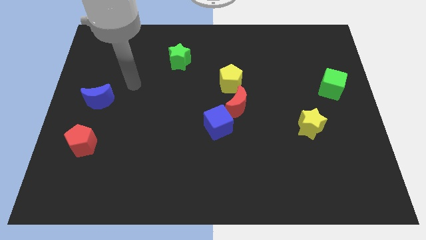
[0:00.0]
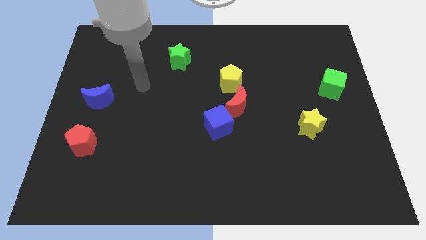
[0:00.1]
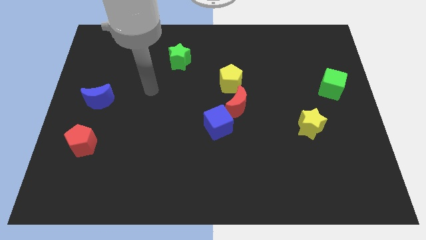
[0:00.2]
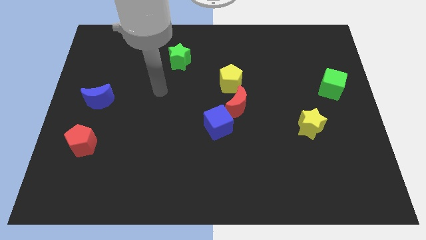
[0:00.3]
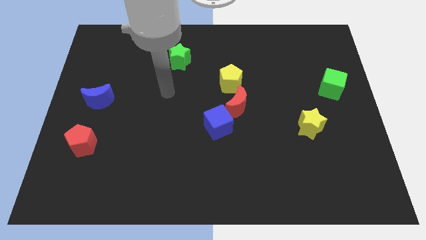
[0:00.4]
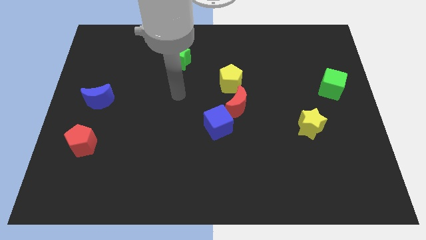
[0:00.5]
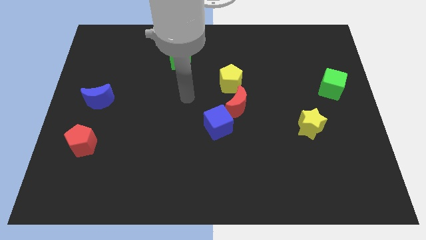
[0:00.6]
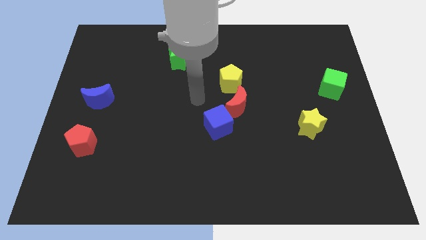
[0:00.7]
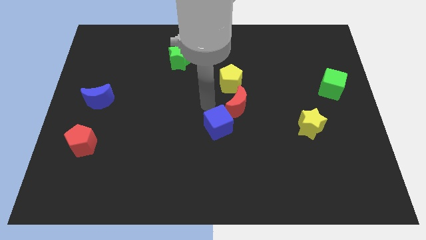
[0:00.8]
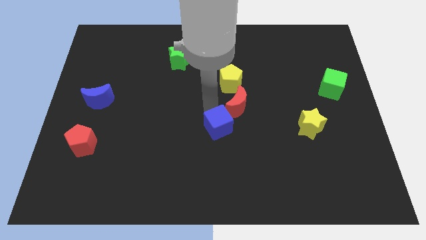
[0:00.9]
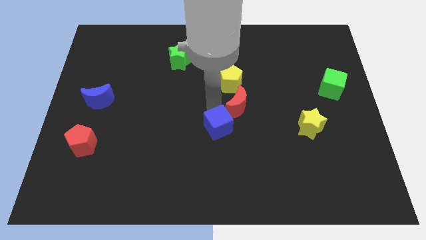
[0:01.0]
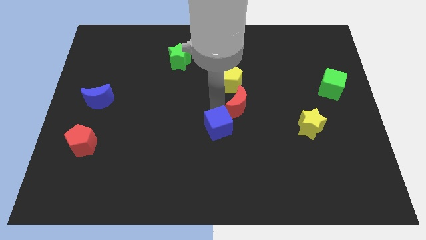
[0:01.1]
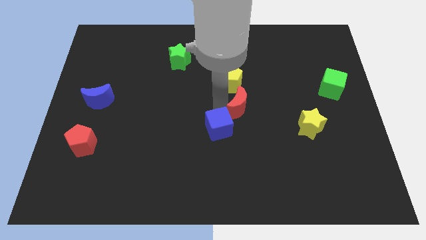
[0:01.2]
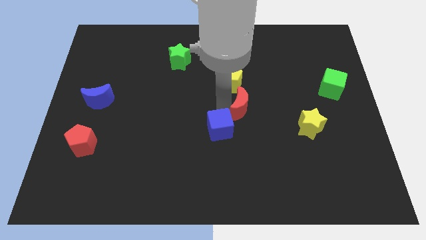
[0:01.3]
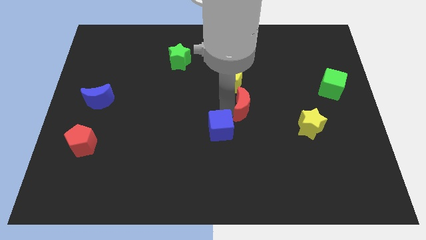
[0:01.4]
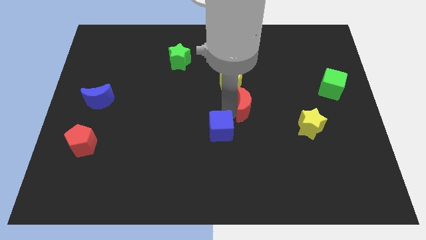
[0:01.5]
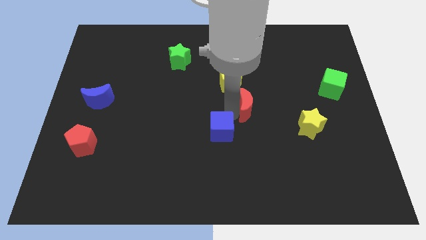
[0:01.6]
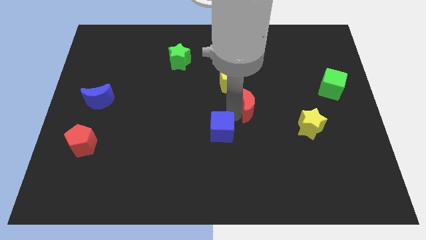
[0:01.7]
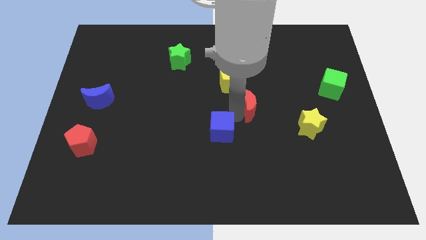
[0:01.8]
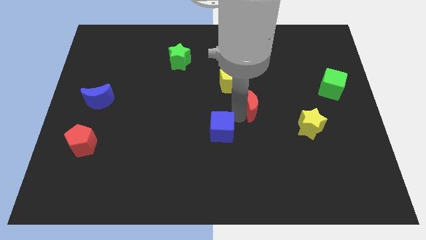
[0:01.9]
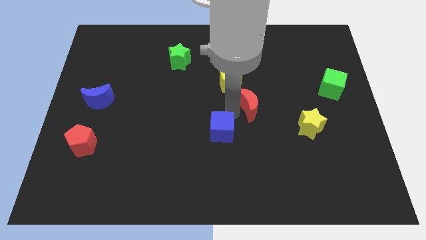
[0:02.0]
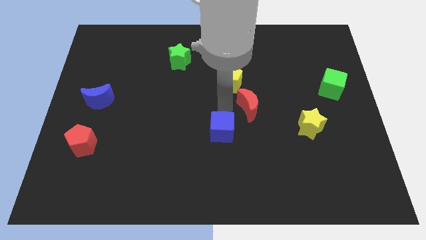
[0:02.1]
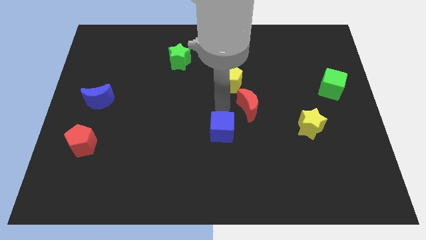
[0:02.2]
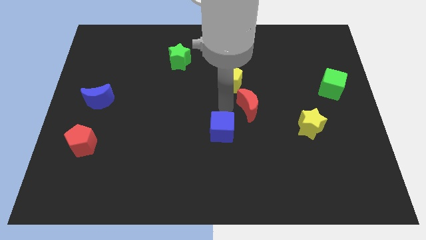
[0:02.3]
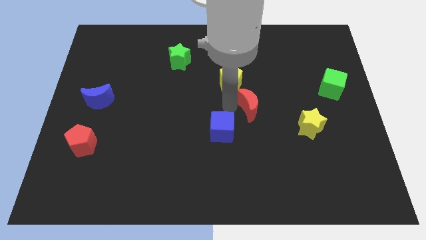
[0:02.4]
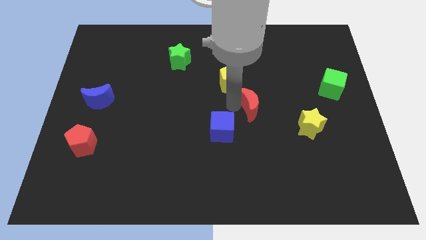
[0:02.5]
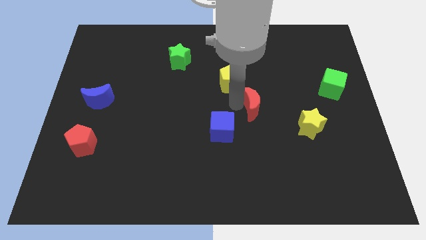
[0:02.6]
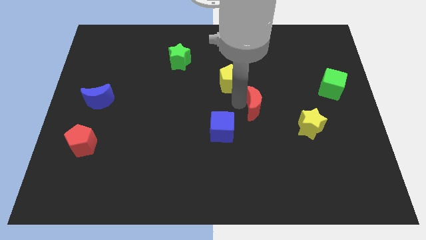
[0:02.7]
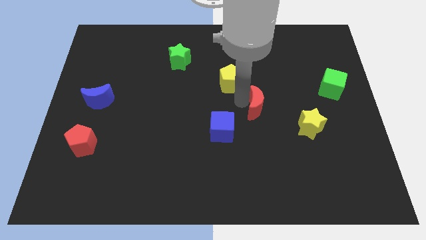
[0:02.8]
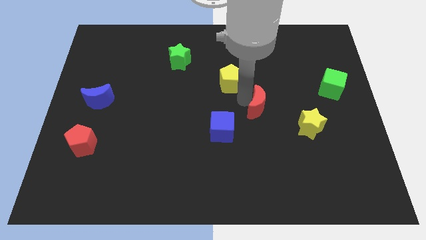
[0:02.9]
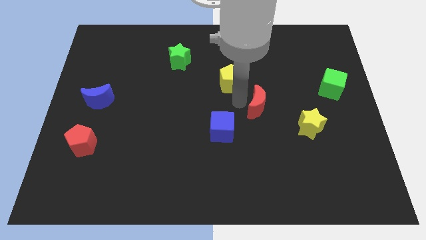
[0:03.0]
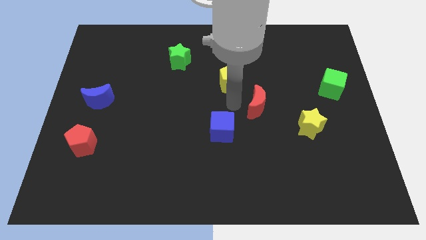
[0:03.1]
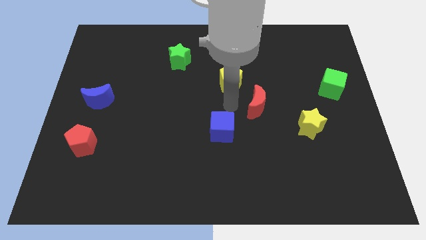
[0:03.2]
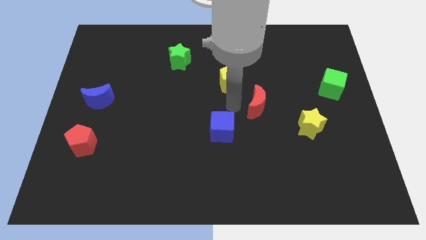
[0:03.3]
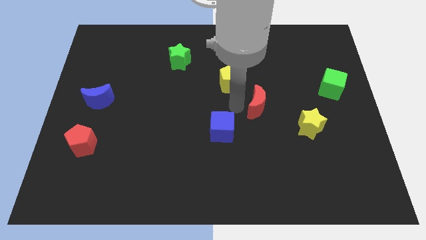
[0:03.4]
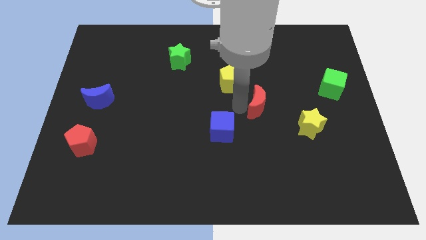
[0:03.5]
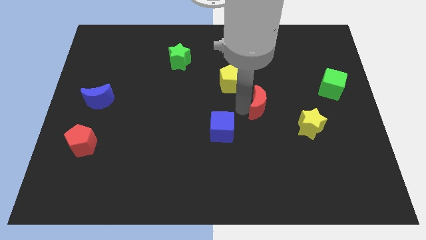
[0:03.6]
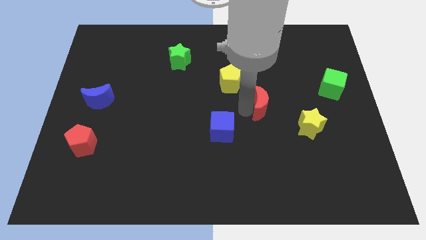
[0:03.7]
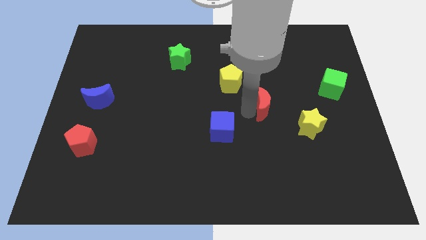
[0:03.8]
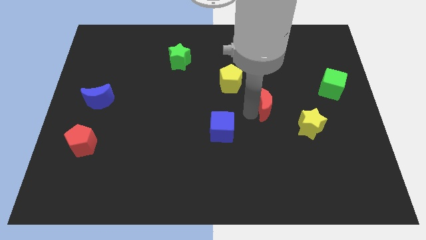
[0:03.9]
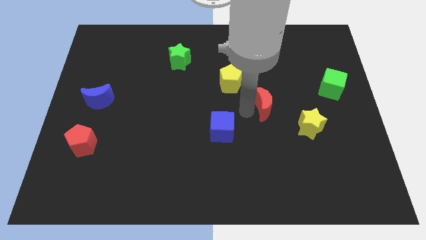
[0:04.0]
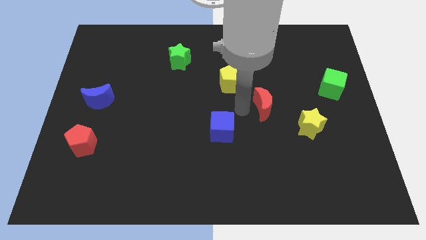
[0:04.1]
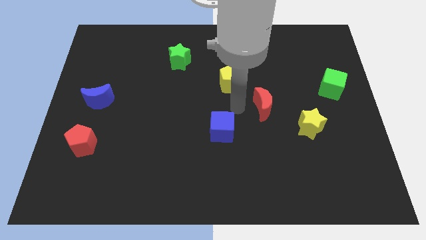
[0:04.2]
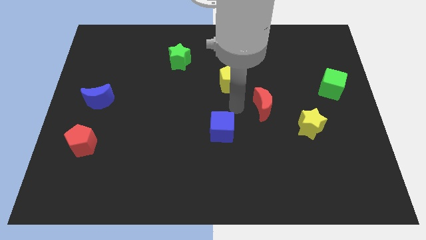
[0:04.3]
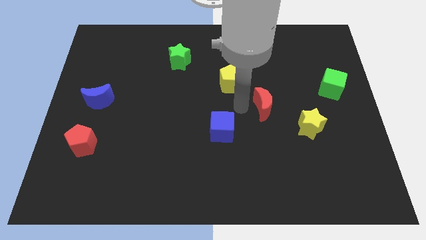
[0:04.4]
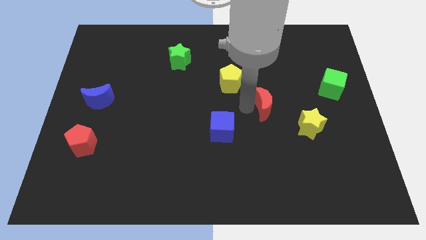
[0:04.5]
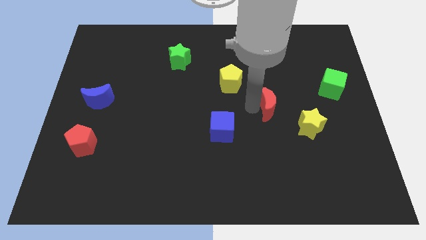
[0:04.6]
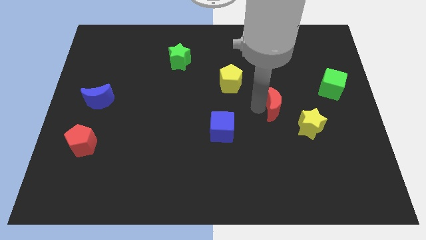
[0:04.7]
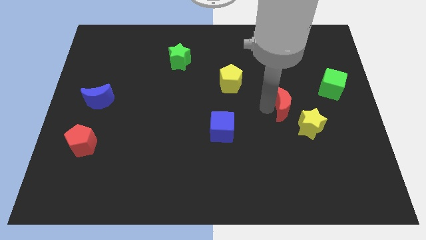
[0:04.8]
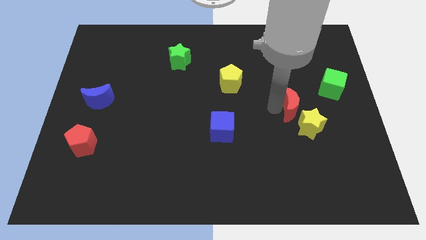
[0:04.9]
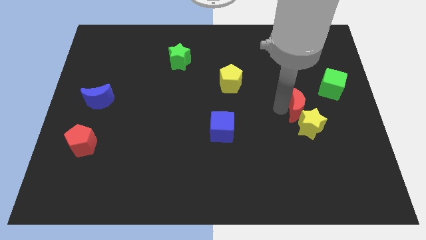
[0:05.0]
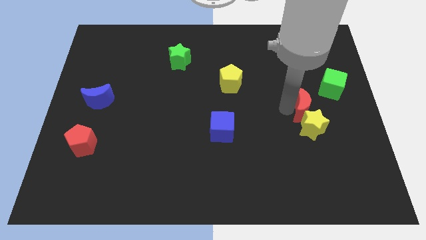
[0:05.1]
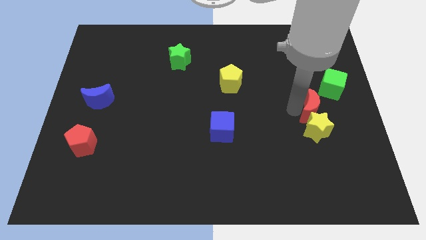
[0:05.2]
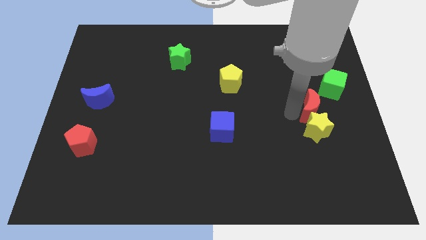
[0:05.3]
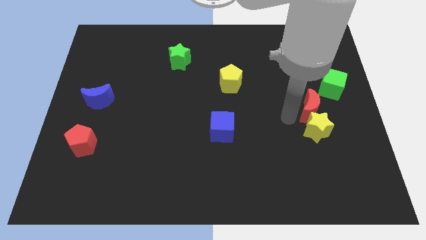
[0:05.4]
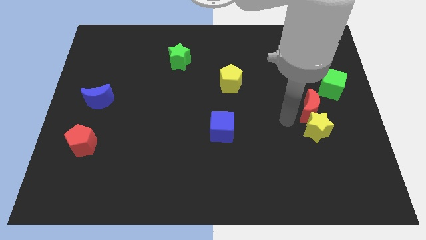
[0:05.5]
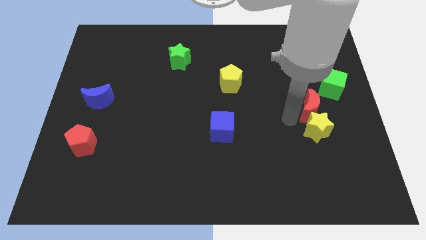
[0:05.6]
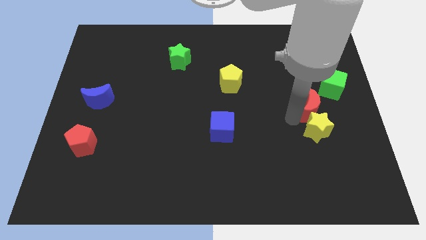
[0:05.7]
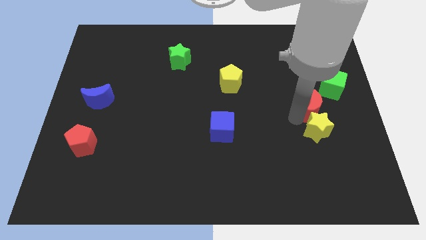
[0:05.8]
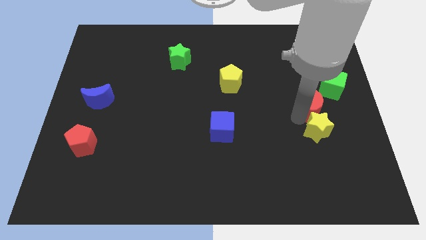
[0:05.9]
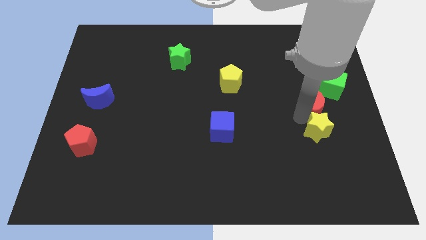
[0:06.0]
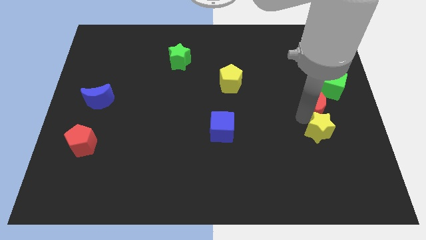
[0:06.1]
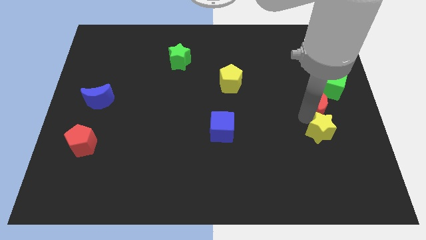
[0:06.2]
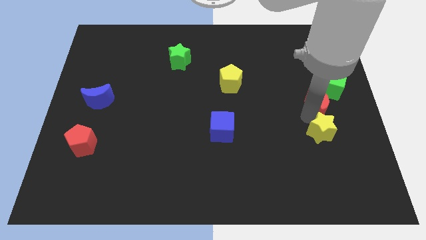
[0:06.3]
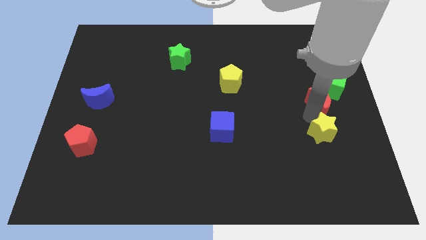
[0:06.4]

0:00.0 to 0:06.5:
slide the red moon to the right side of the board

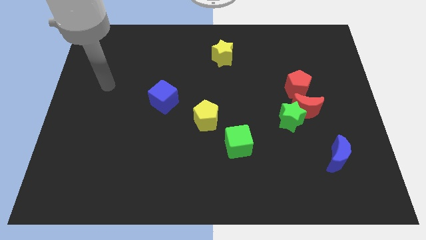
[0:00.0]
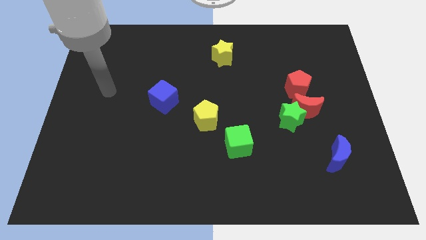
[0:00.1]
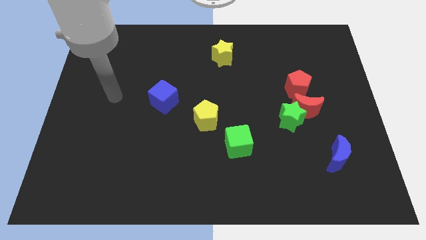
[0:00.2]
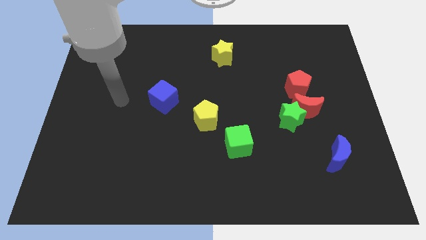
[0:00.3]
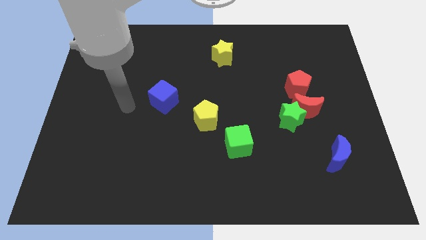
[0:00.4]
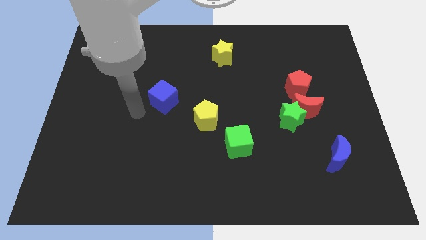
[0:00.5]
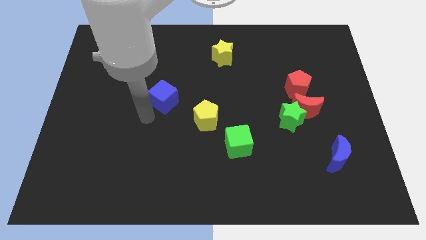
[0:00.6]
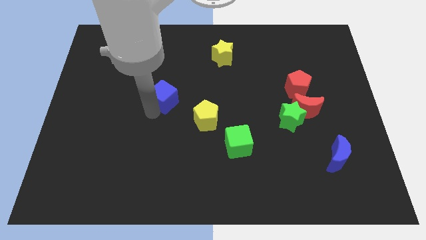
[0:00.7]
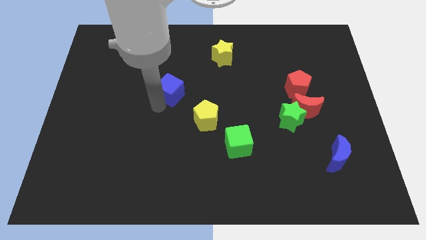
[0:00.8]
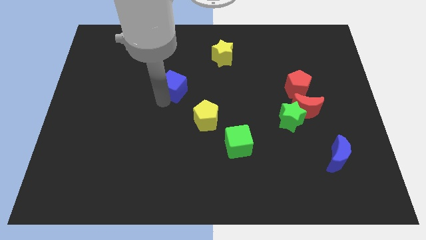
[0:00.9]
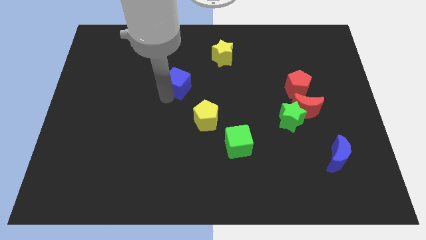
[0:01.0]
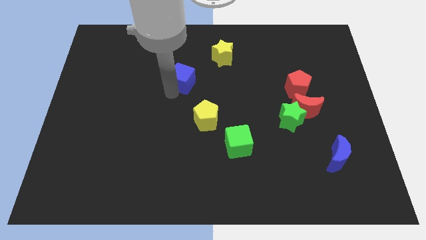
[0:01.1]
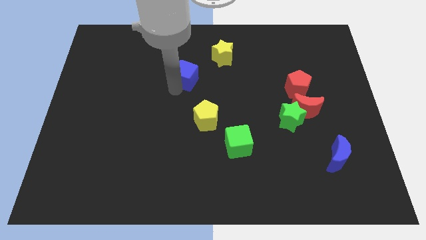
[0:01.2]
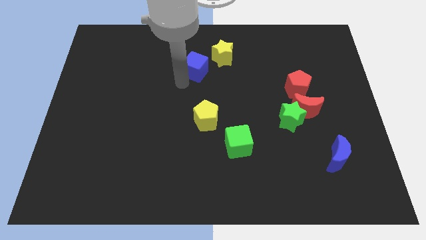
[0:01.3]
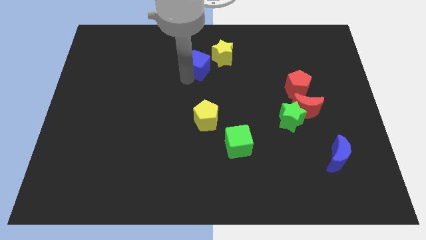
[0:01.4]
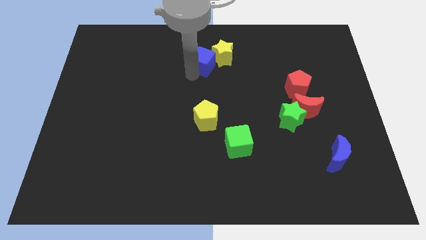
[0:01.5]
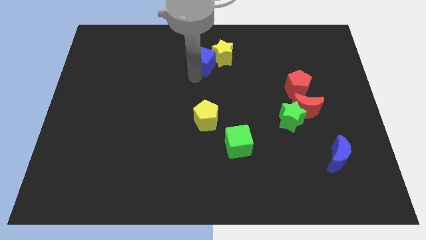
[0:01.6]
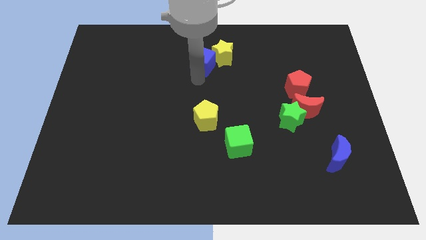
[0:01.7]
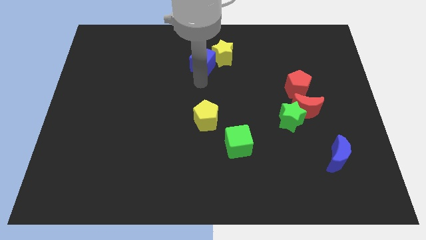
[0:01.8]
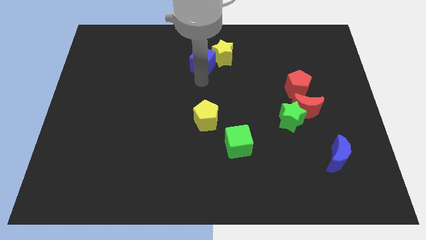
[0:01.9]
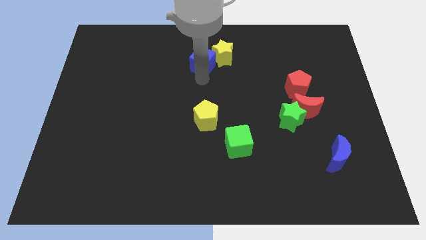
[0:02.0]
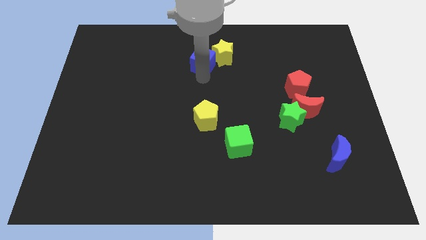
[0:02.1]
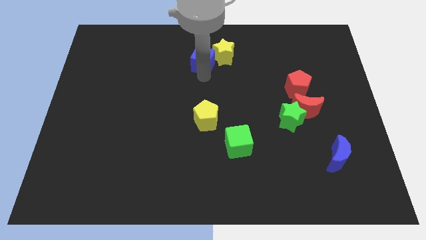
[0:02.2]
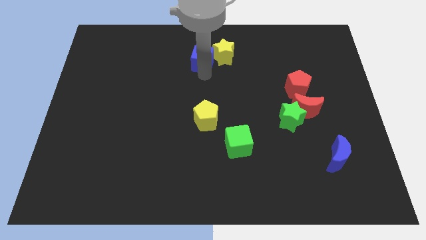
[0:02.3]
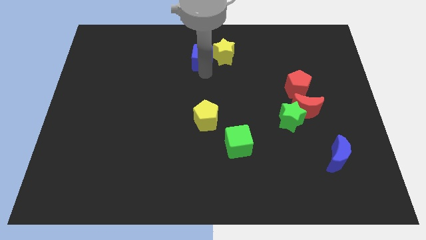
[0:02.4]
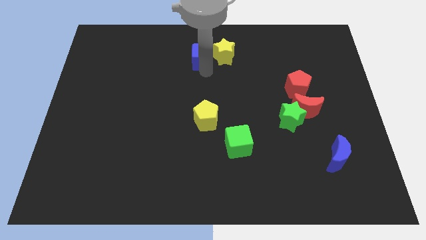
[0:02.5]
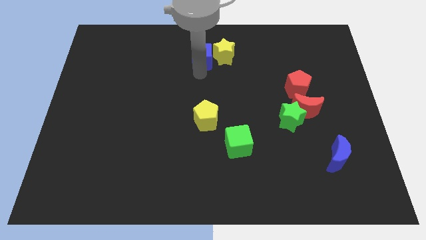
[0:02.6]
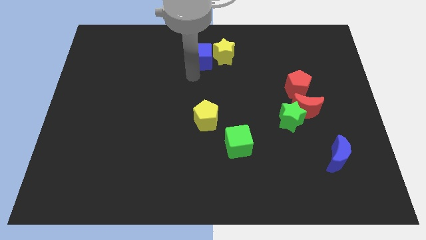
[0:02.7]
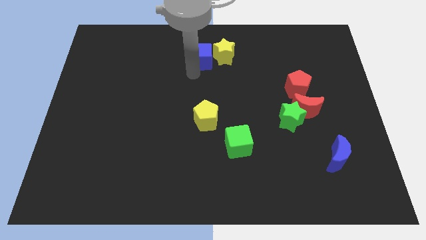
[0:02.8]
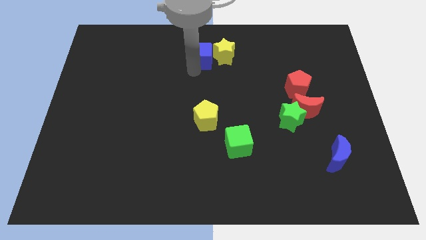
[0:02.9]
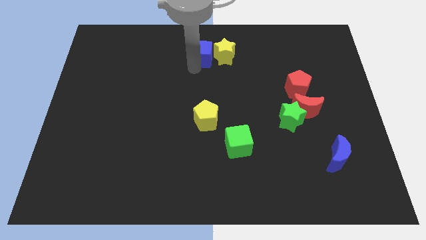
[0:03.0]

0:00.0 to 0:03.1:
push the blue cube to the towards your base
